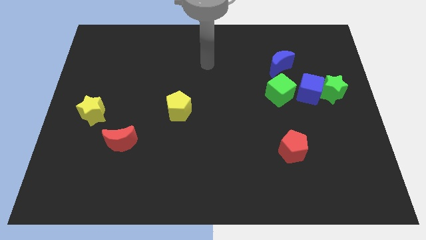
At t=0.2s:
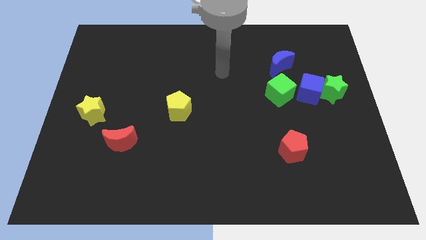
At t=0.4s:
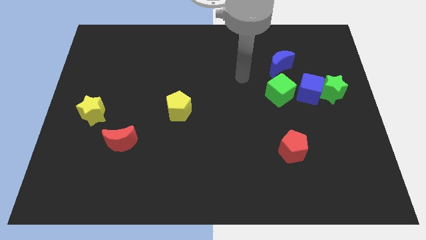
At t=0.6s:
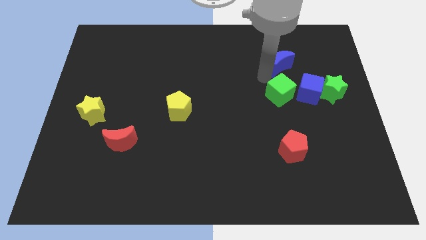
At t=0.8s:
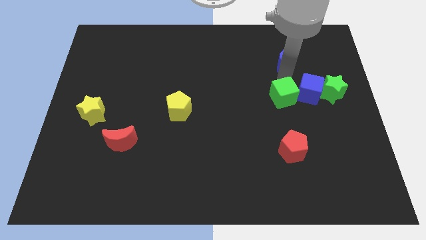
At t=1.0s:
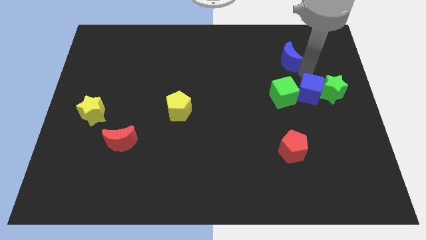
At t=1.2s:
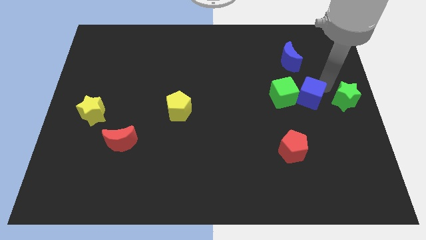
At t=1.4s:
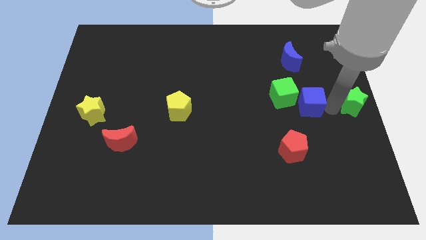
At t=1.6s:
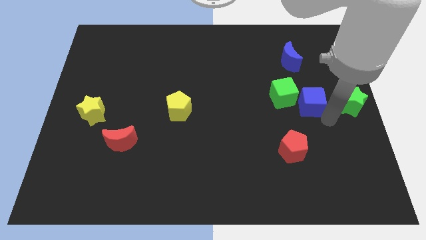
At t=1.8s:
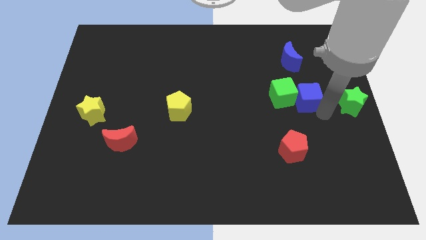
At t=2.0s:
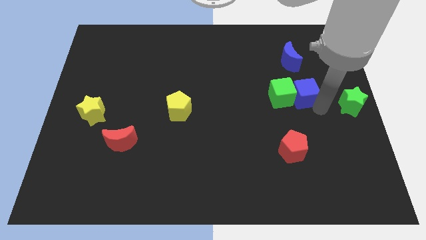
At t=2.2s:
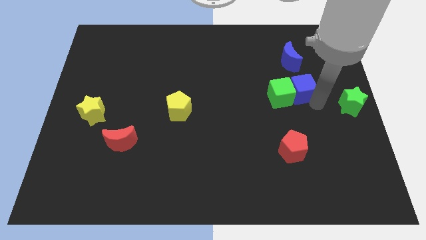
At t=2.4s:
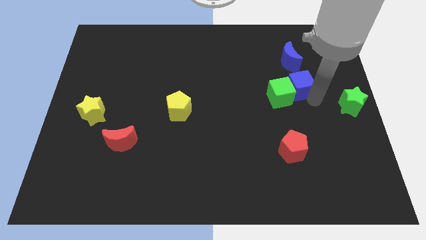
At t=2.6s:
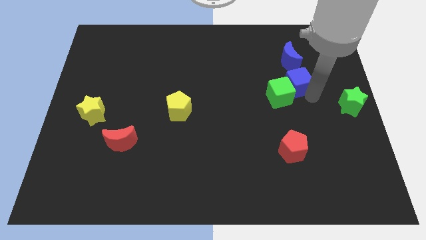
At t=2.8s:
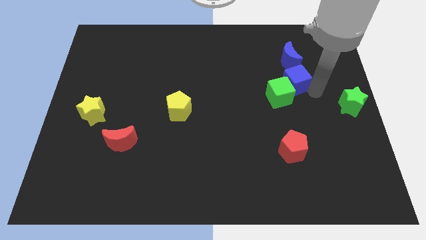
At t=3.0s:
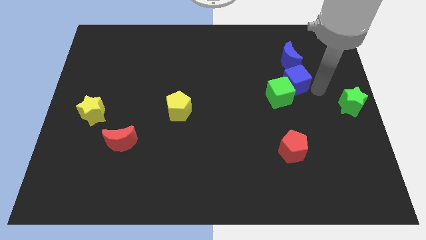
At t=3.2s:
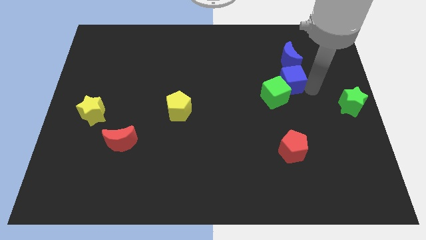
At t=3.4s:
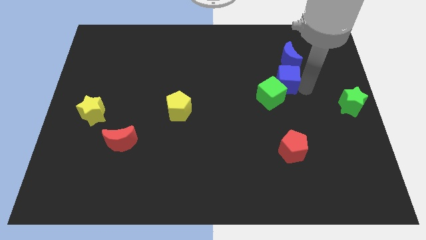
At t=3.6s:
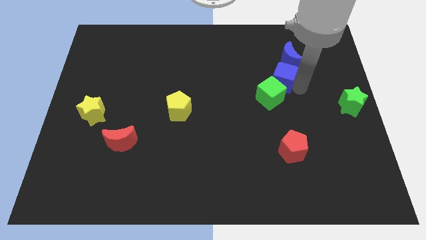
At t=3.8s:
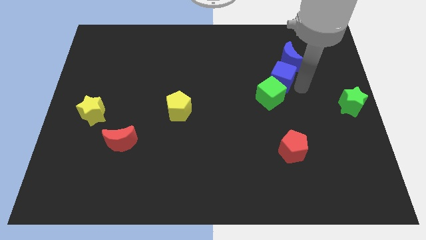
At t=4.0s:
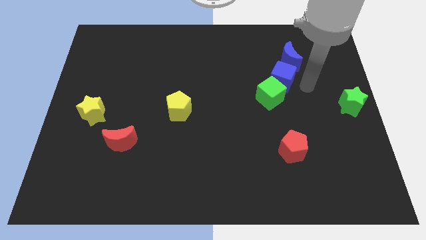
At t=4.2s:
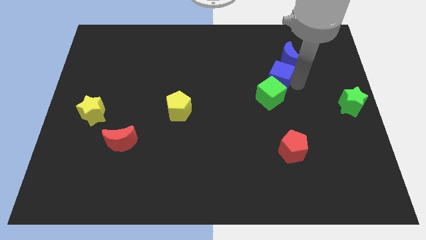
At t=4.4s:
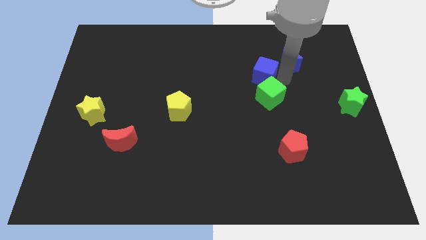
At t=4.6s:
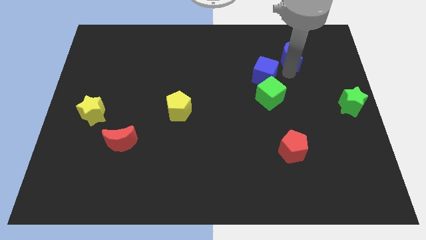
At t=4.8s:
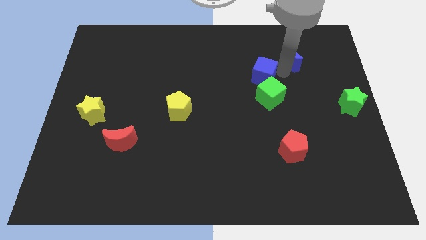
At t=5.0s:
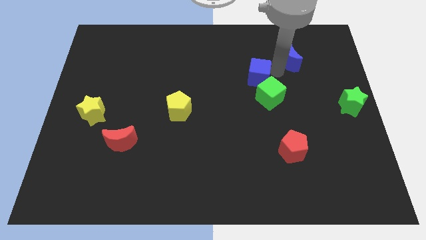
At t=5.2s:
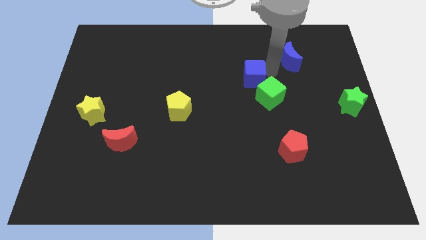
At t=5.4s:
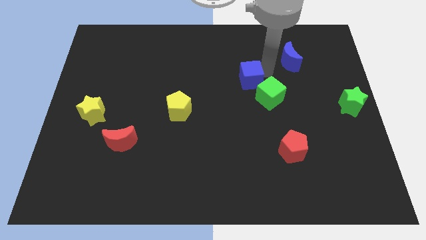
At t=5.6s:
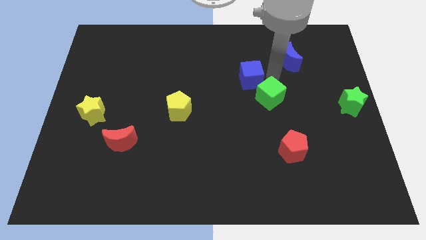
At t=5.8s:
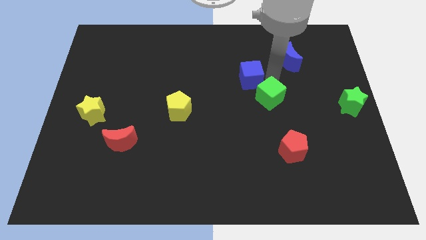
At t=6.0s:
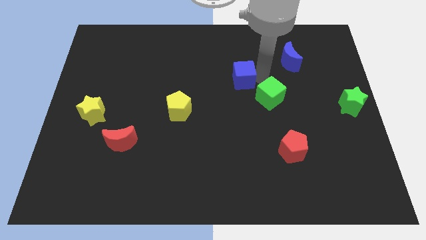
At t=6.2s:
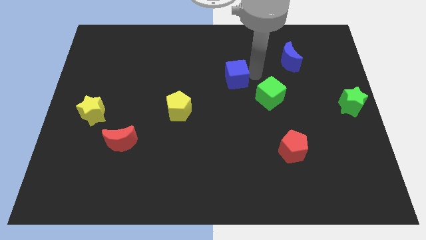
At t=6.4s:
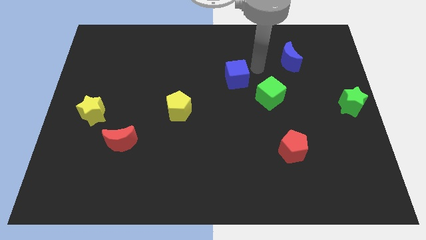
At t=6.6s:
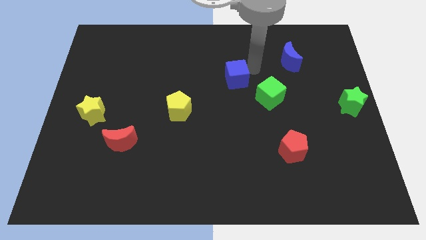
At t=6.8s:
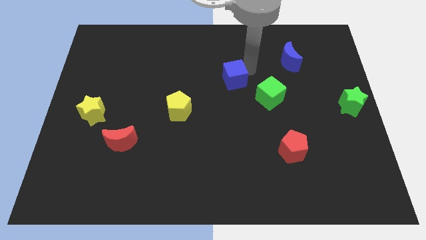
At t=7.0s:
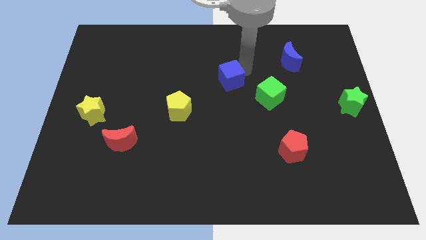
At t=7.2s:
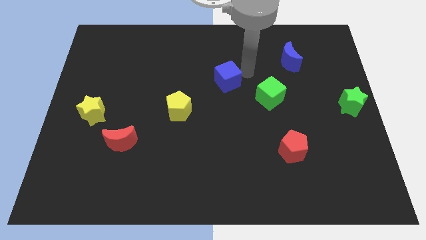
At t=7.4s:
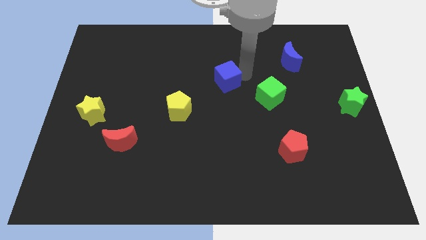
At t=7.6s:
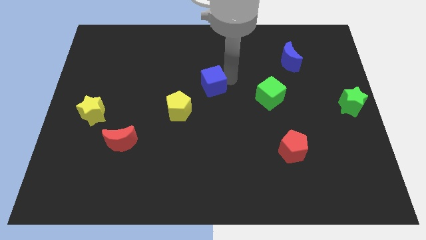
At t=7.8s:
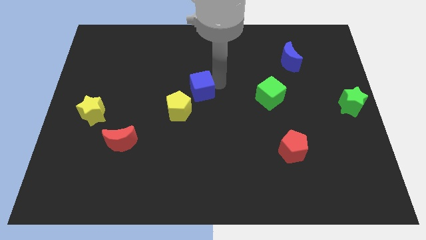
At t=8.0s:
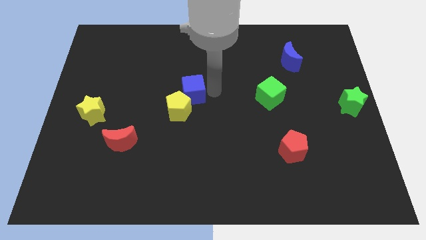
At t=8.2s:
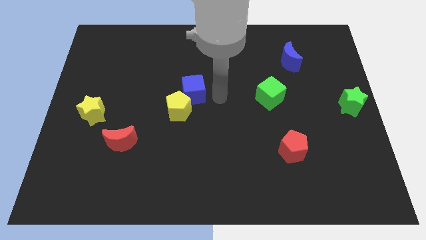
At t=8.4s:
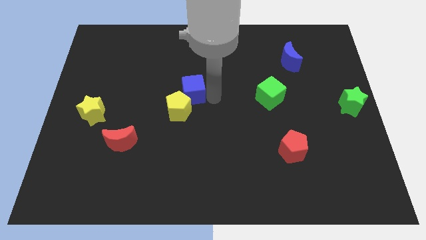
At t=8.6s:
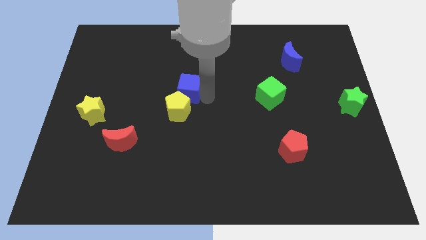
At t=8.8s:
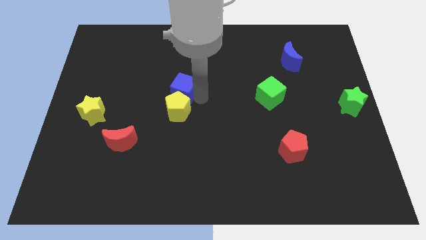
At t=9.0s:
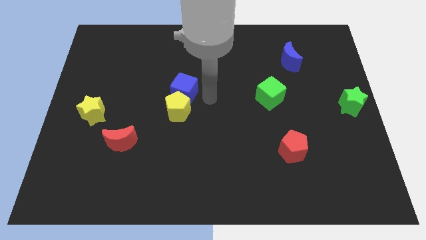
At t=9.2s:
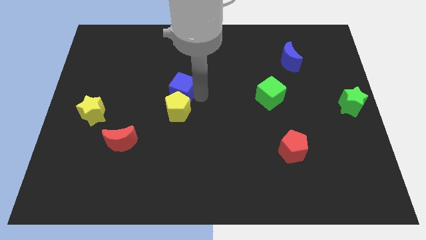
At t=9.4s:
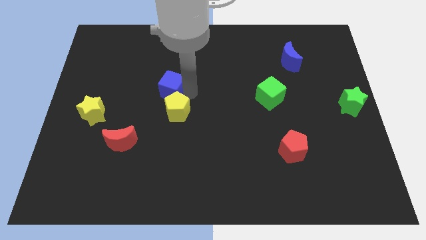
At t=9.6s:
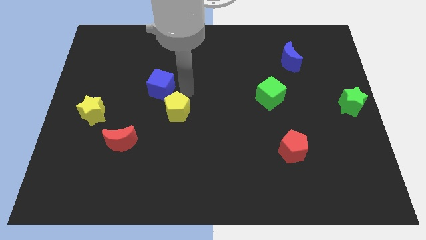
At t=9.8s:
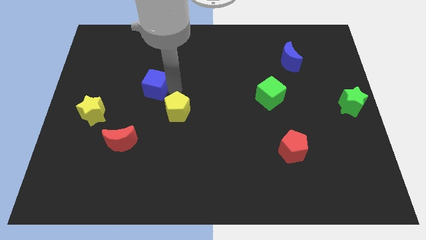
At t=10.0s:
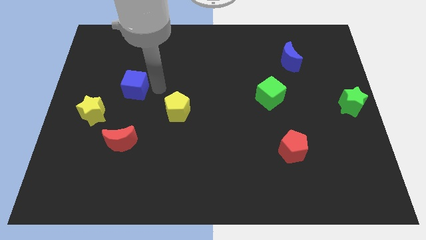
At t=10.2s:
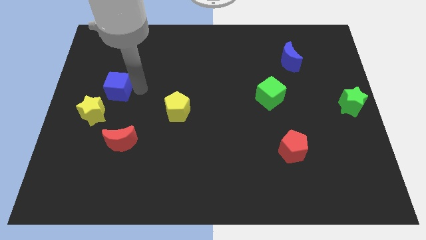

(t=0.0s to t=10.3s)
put the blue cube to the top side of the yellow star

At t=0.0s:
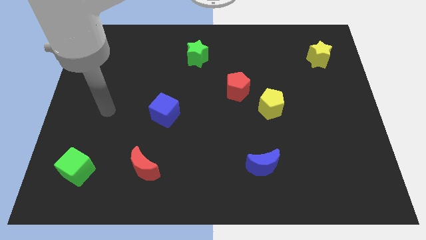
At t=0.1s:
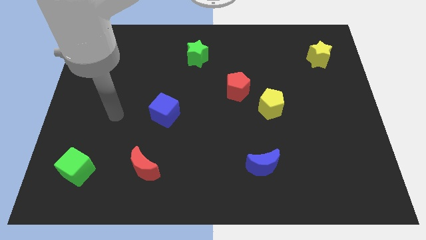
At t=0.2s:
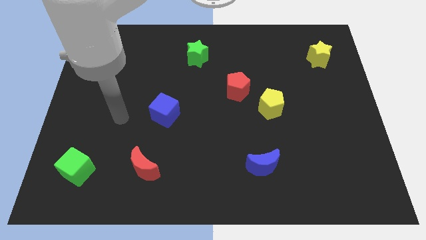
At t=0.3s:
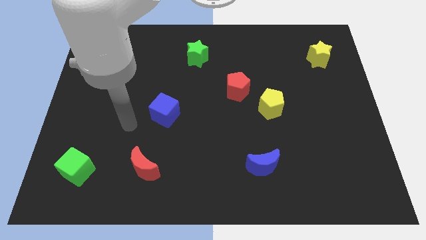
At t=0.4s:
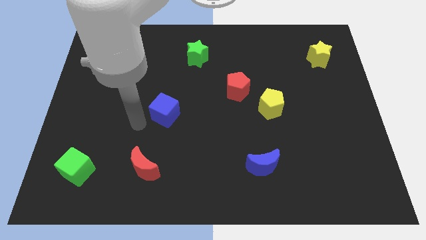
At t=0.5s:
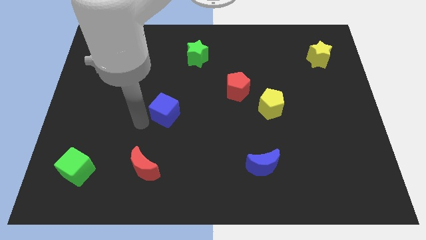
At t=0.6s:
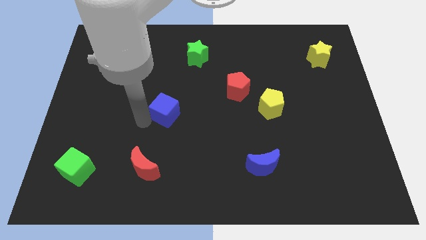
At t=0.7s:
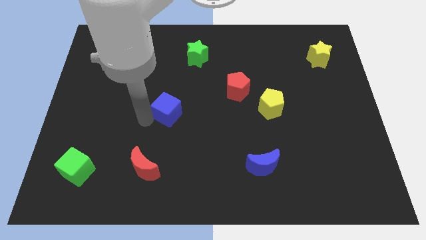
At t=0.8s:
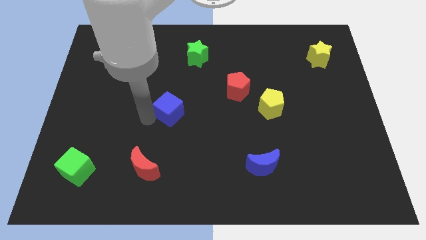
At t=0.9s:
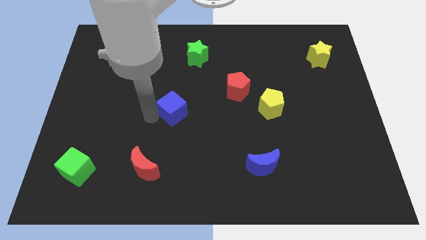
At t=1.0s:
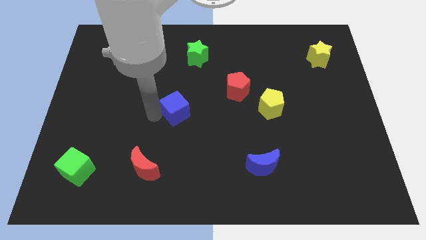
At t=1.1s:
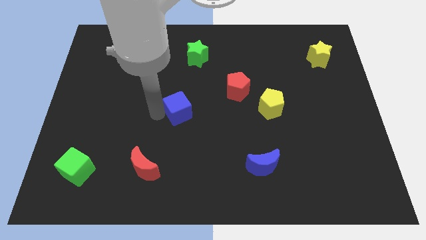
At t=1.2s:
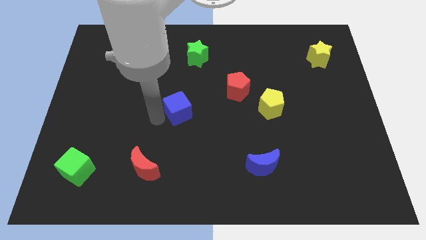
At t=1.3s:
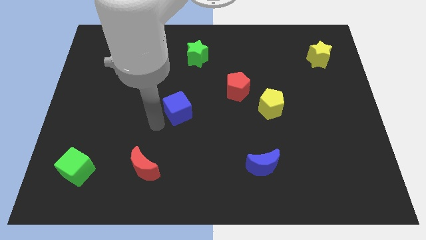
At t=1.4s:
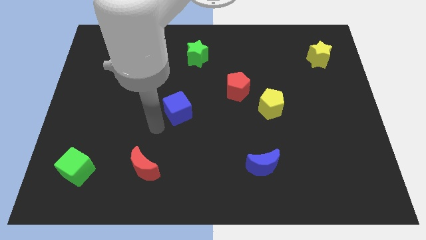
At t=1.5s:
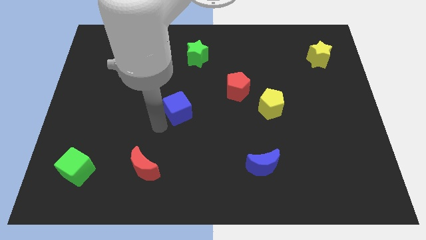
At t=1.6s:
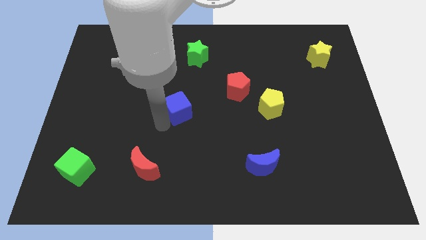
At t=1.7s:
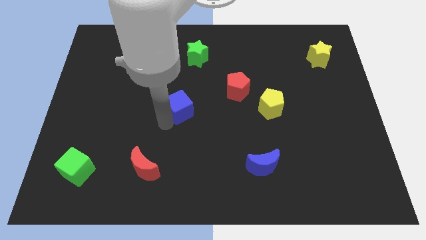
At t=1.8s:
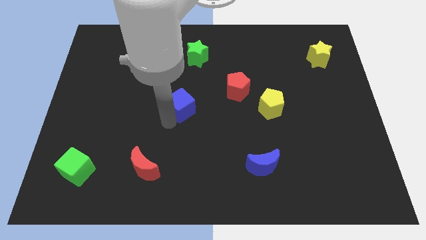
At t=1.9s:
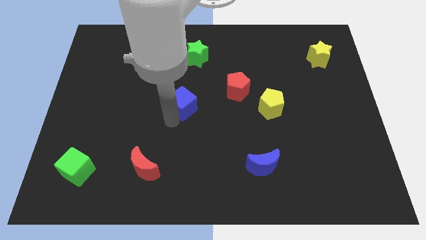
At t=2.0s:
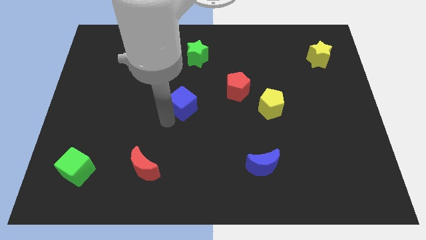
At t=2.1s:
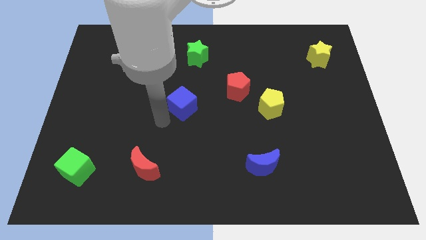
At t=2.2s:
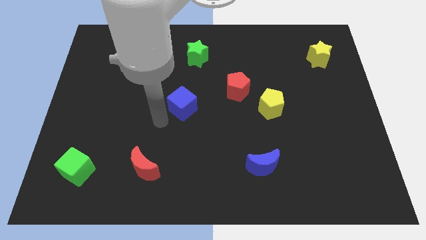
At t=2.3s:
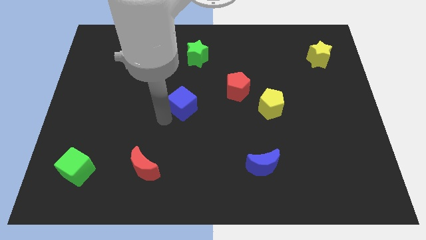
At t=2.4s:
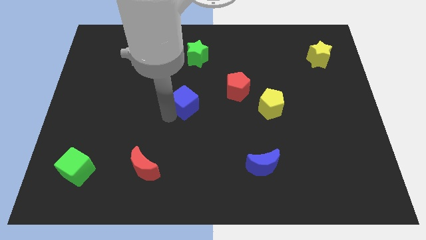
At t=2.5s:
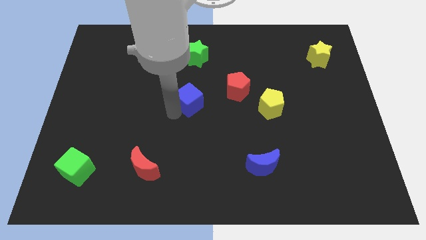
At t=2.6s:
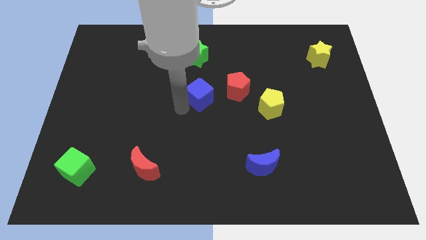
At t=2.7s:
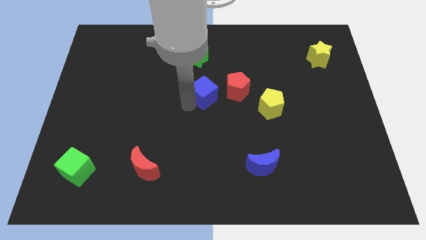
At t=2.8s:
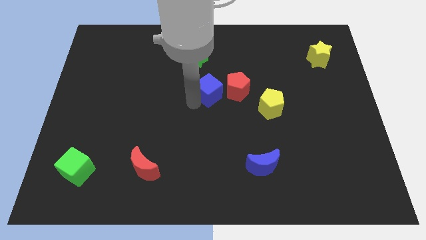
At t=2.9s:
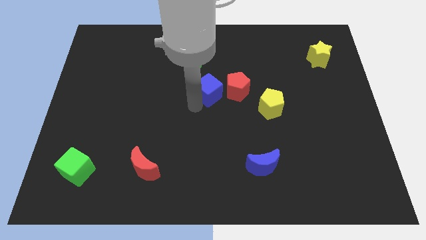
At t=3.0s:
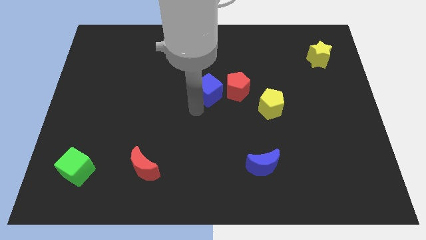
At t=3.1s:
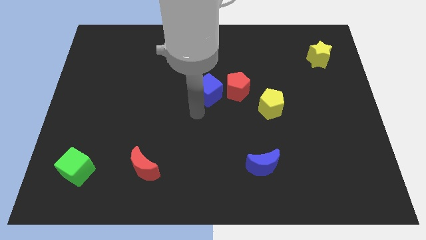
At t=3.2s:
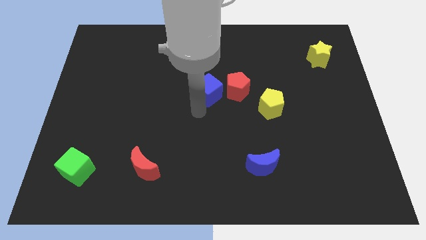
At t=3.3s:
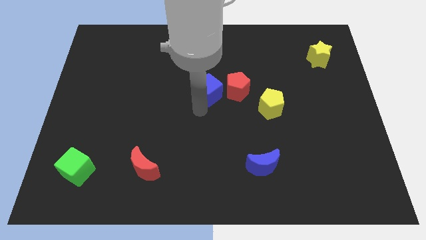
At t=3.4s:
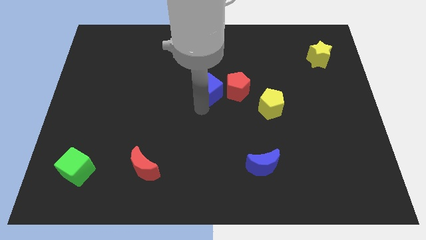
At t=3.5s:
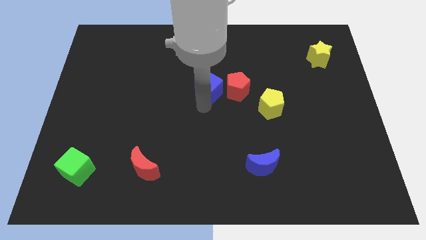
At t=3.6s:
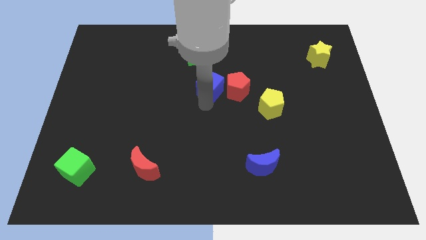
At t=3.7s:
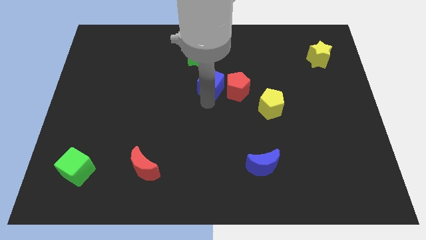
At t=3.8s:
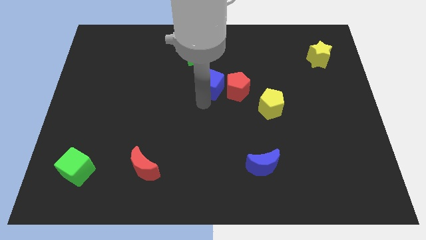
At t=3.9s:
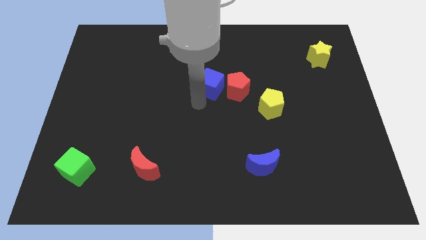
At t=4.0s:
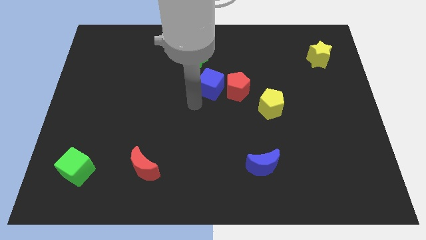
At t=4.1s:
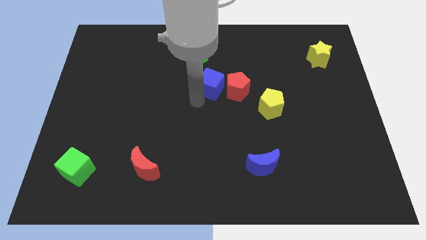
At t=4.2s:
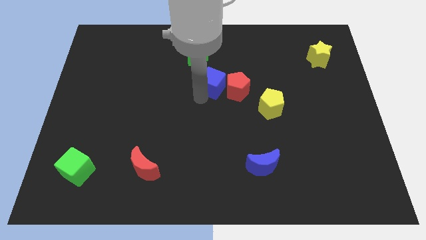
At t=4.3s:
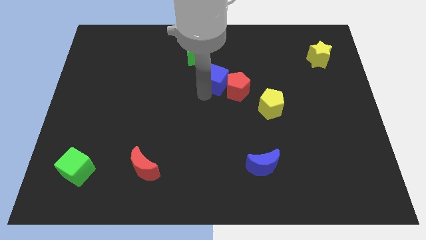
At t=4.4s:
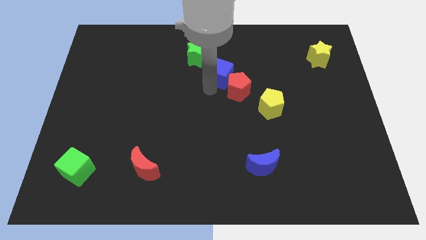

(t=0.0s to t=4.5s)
move the blue cube above the red pentagon
